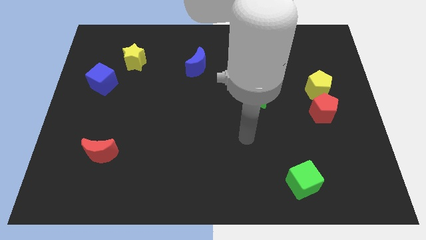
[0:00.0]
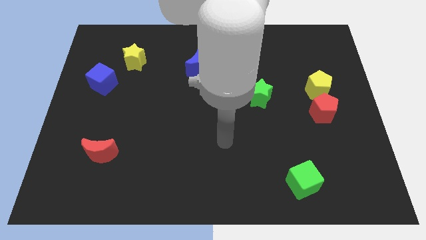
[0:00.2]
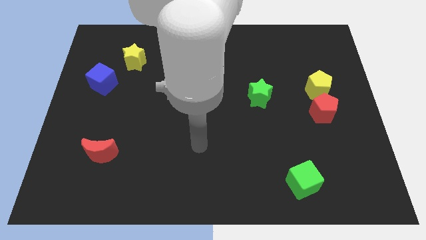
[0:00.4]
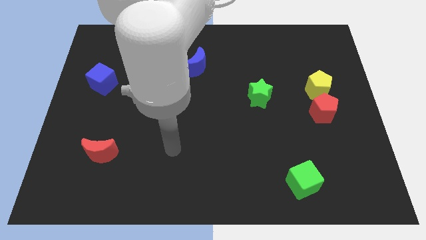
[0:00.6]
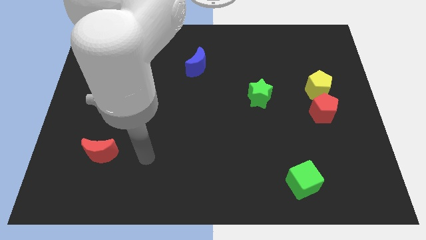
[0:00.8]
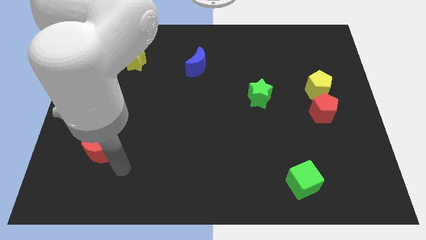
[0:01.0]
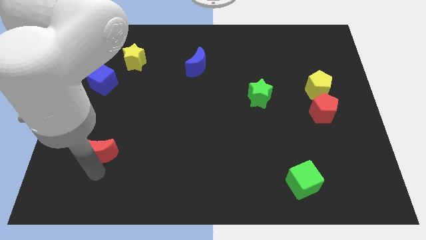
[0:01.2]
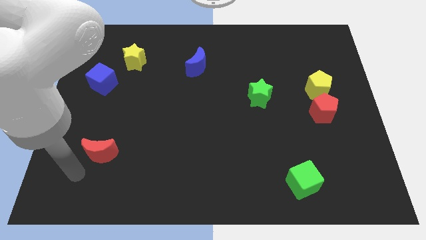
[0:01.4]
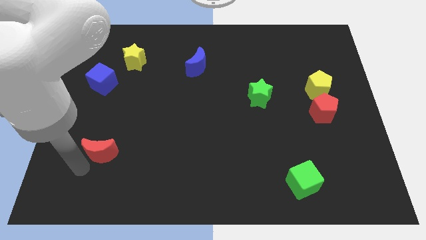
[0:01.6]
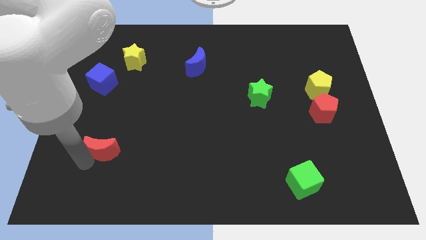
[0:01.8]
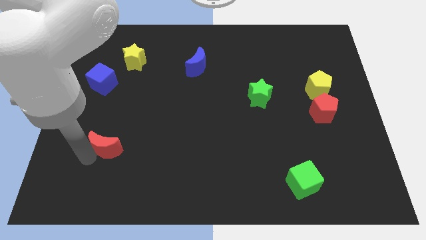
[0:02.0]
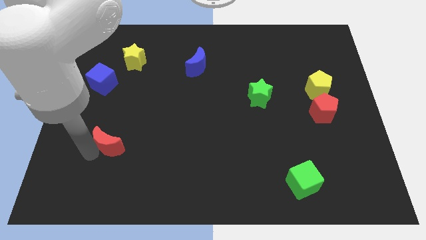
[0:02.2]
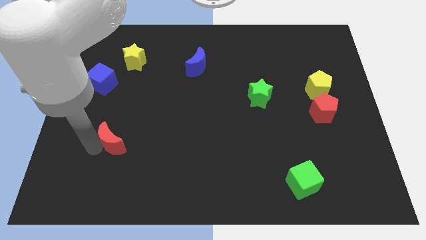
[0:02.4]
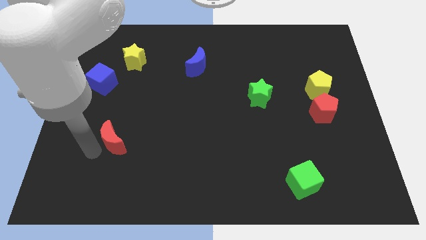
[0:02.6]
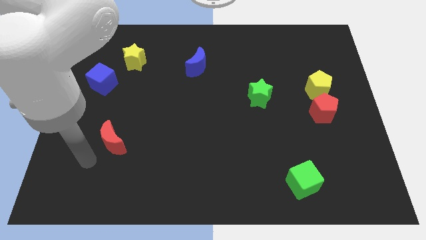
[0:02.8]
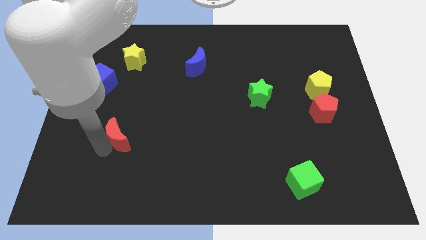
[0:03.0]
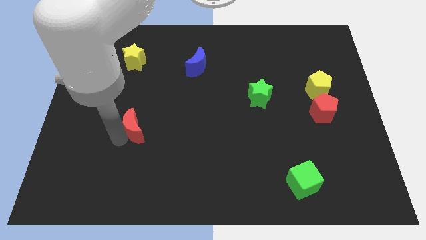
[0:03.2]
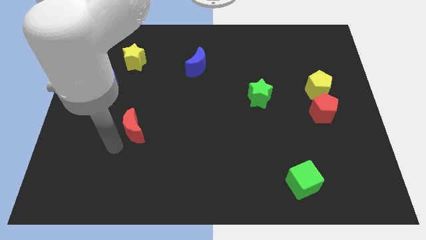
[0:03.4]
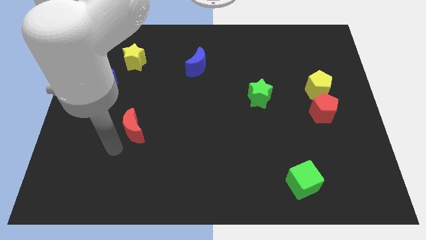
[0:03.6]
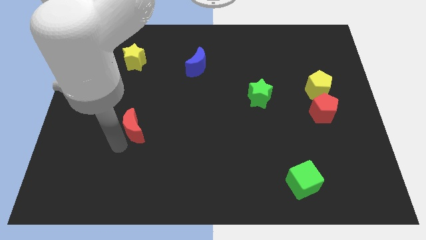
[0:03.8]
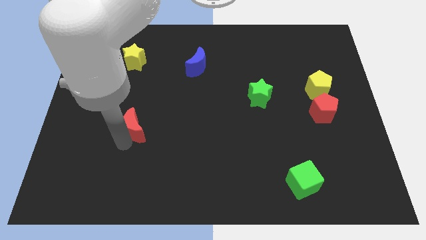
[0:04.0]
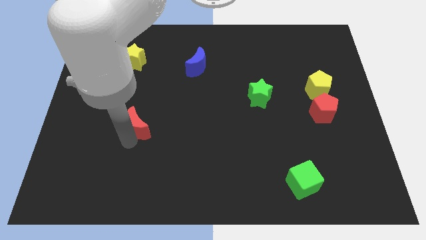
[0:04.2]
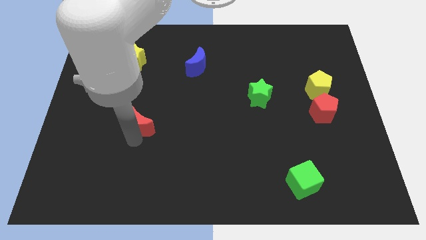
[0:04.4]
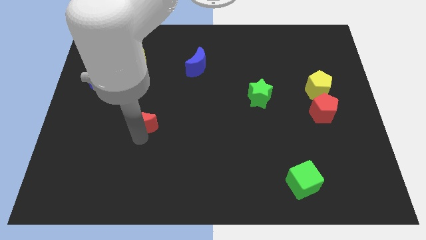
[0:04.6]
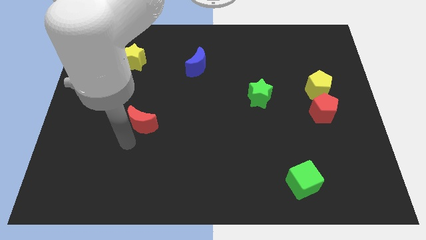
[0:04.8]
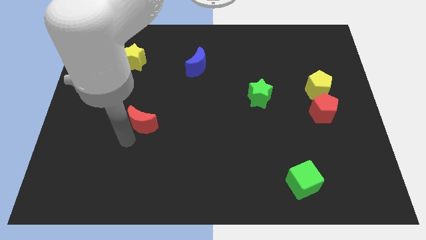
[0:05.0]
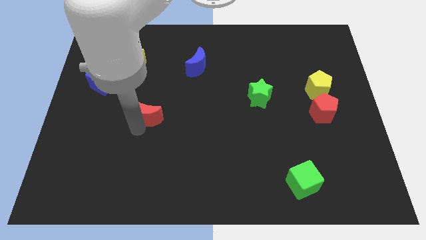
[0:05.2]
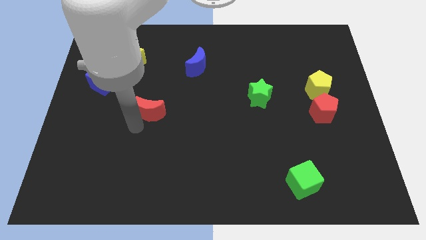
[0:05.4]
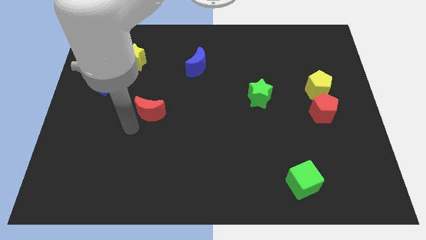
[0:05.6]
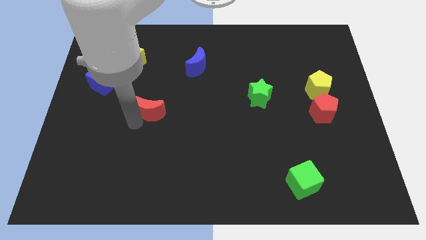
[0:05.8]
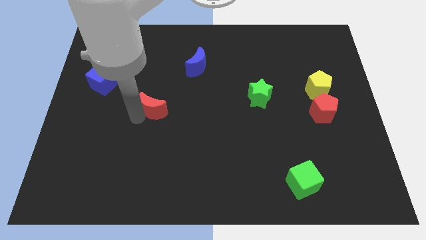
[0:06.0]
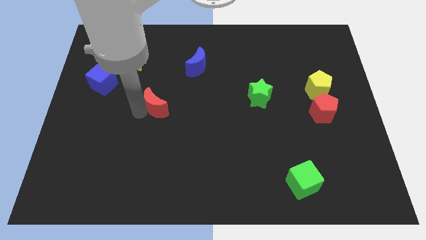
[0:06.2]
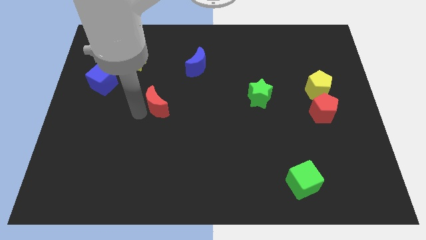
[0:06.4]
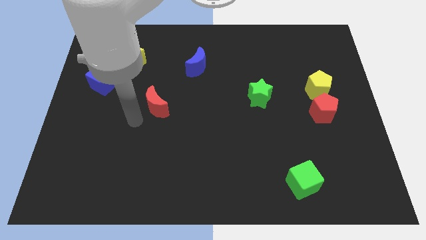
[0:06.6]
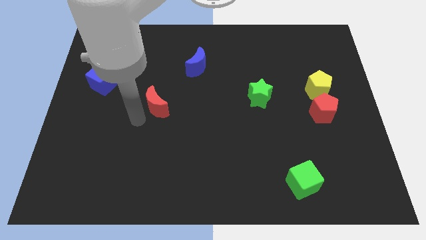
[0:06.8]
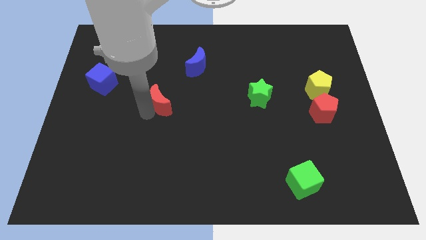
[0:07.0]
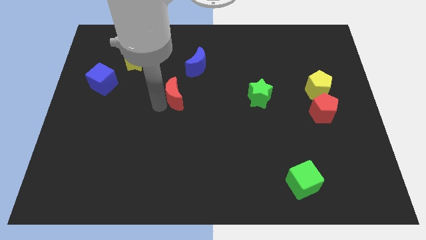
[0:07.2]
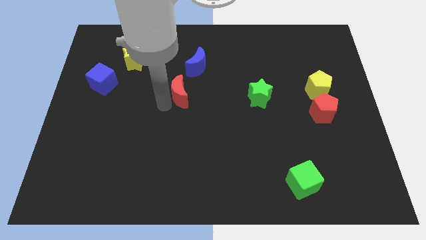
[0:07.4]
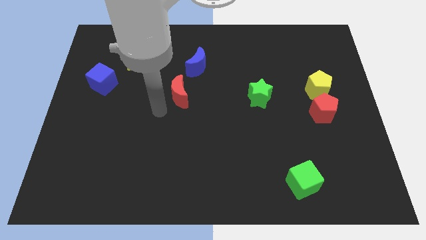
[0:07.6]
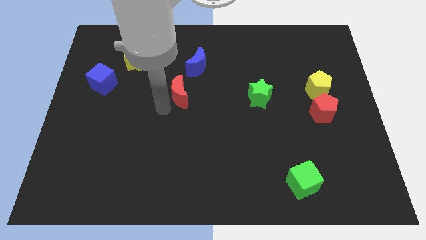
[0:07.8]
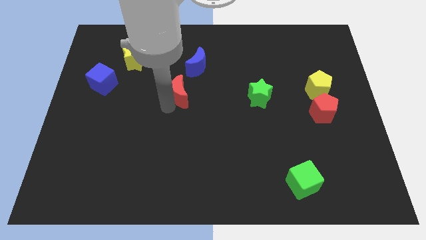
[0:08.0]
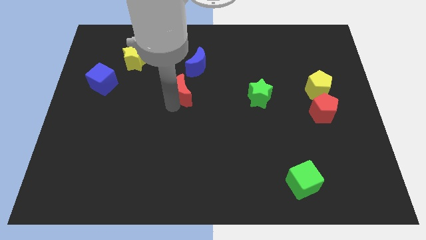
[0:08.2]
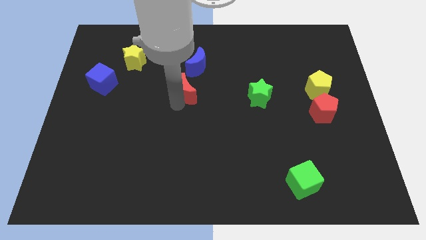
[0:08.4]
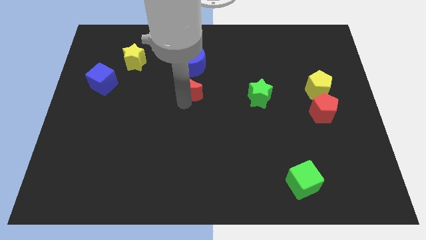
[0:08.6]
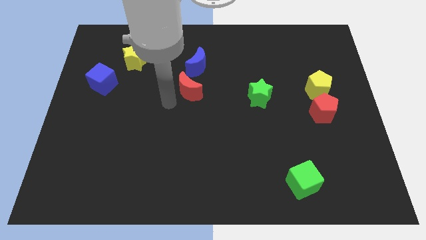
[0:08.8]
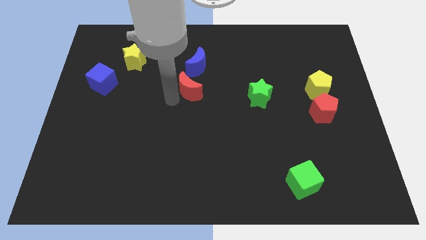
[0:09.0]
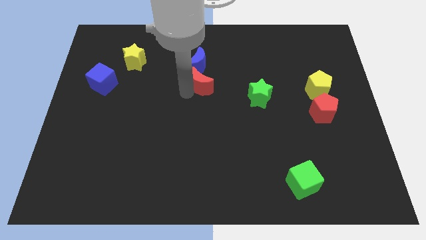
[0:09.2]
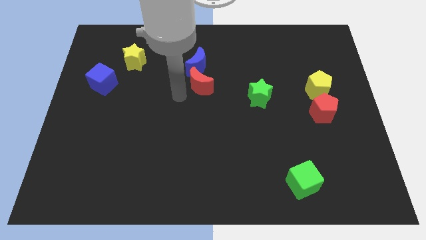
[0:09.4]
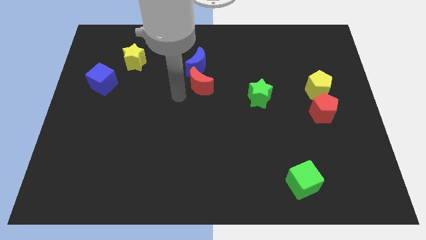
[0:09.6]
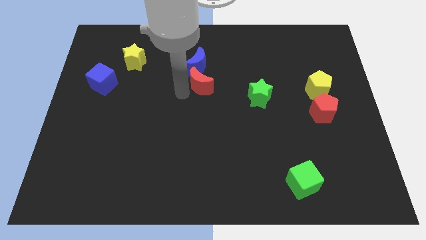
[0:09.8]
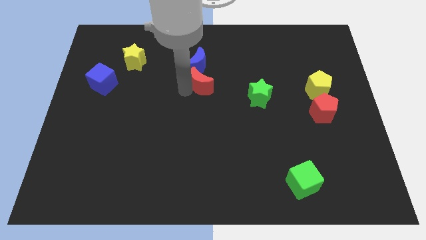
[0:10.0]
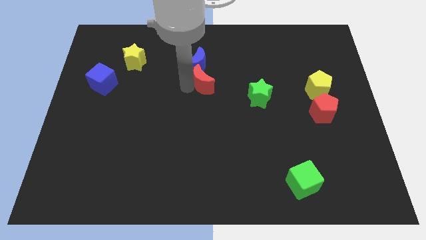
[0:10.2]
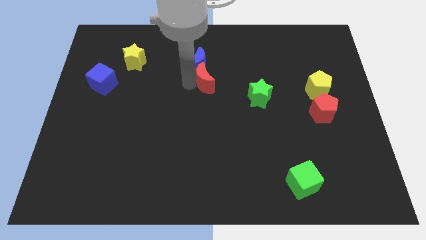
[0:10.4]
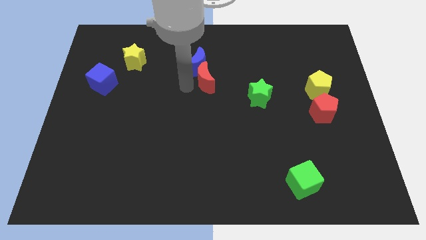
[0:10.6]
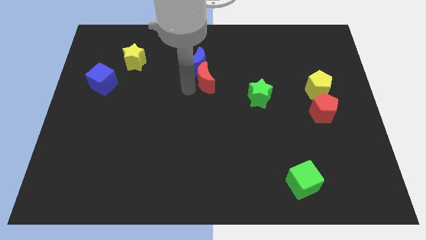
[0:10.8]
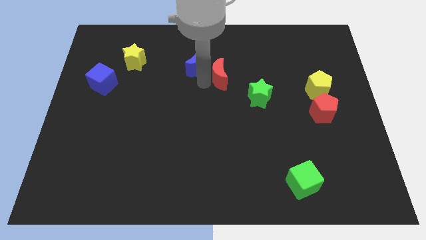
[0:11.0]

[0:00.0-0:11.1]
push the red moon just right of the blue moon
